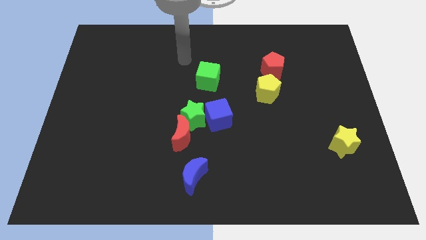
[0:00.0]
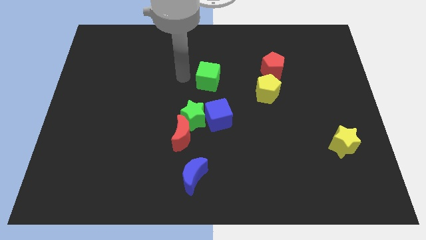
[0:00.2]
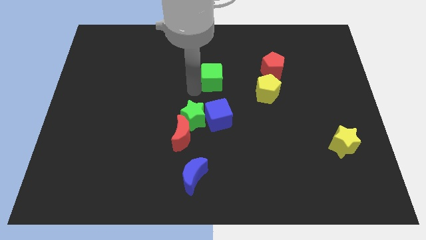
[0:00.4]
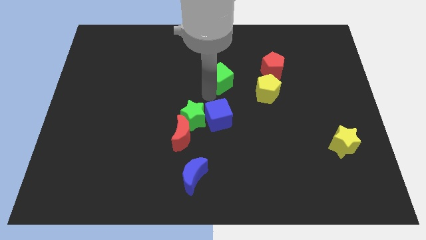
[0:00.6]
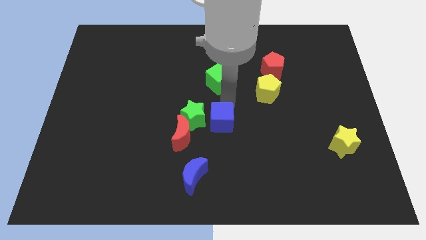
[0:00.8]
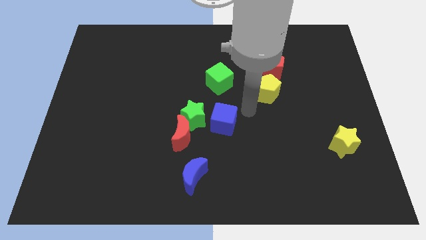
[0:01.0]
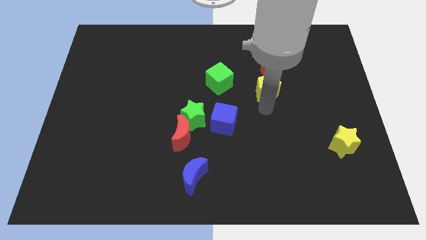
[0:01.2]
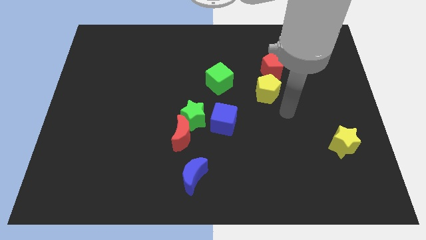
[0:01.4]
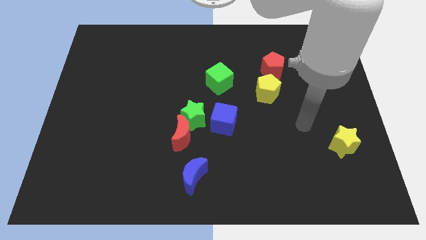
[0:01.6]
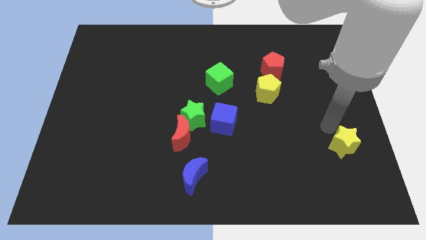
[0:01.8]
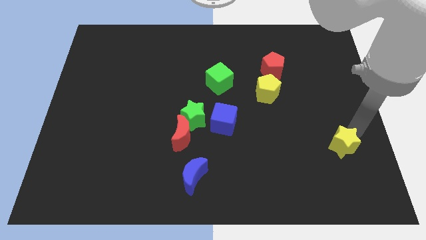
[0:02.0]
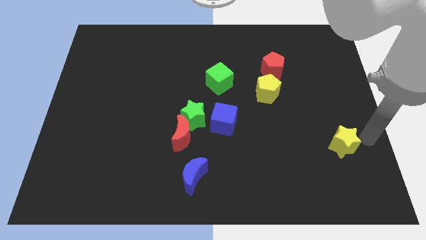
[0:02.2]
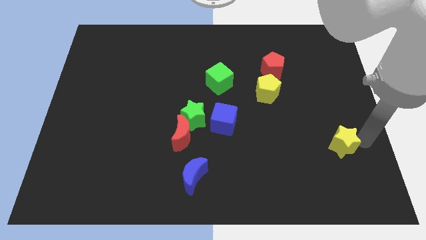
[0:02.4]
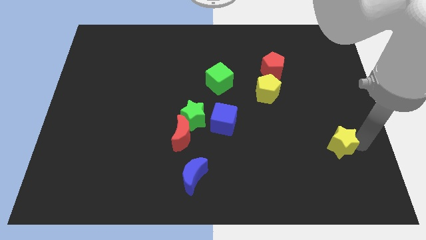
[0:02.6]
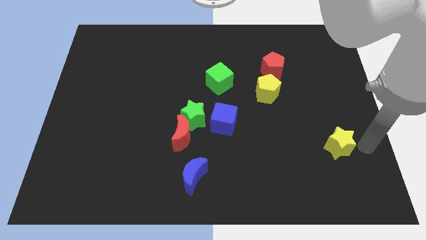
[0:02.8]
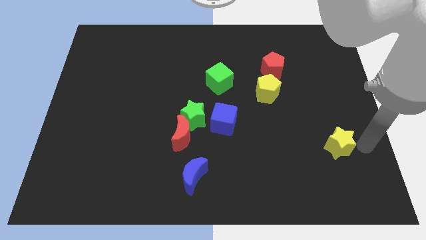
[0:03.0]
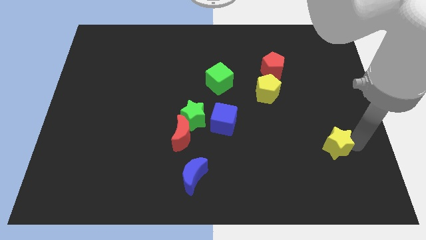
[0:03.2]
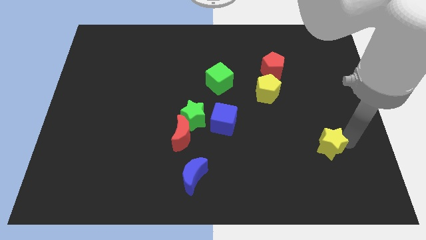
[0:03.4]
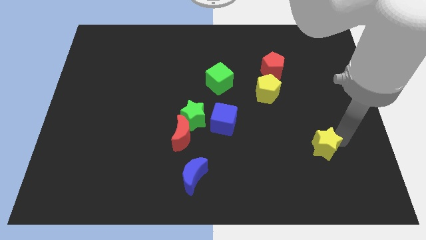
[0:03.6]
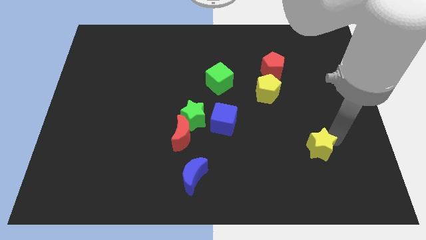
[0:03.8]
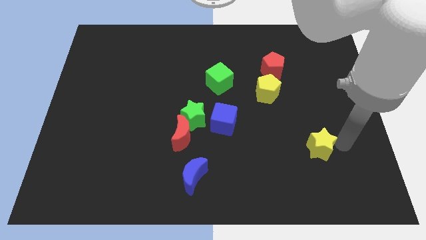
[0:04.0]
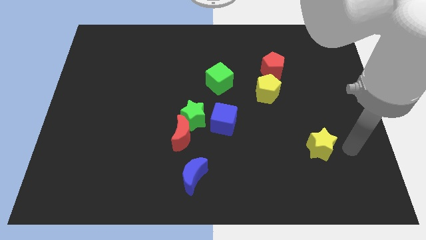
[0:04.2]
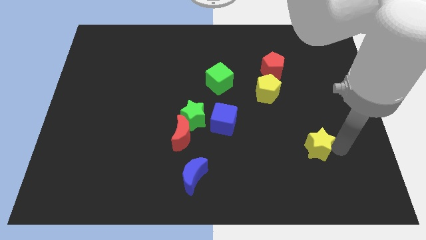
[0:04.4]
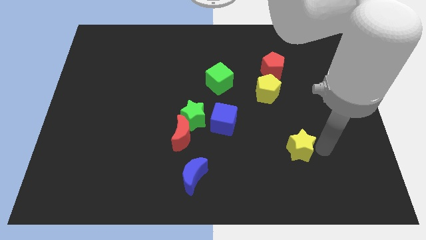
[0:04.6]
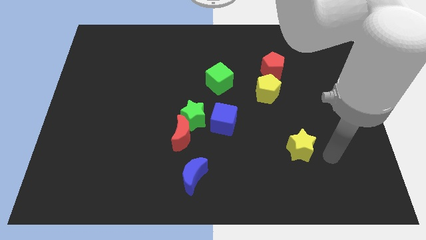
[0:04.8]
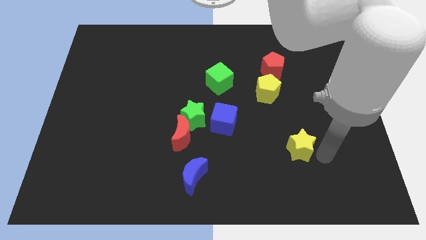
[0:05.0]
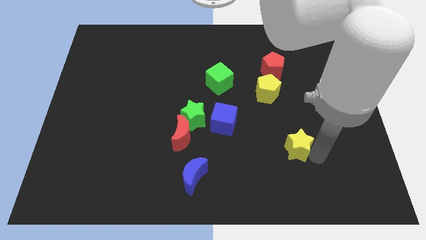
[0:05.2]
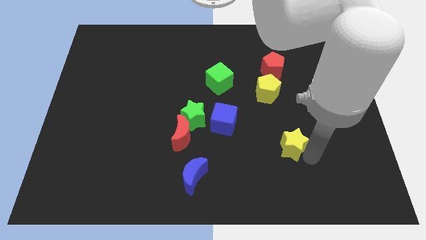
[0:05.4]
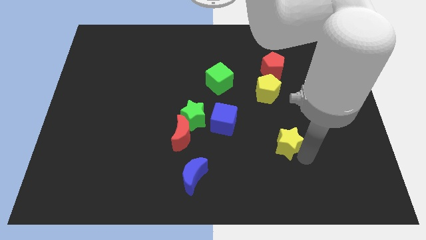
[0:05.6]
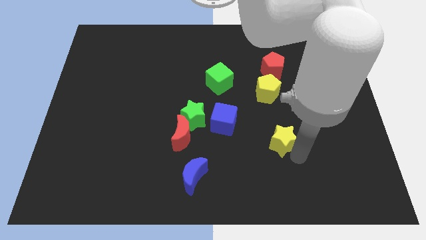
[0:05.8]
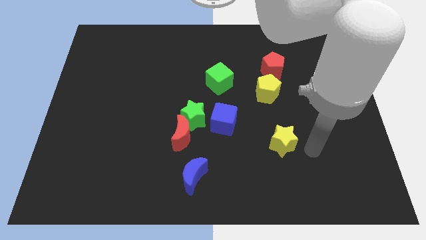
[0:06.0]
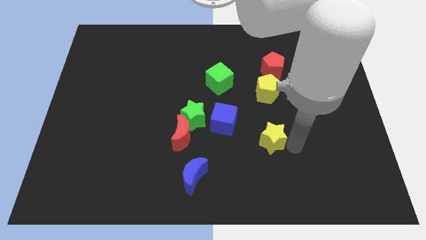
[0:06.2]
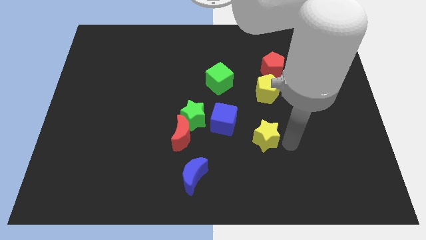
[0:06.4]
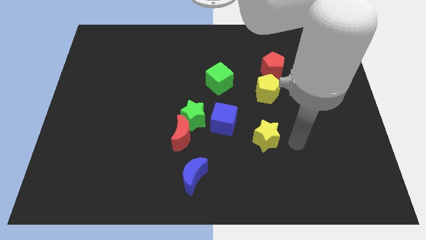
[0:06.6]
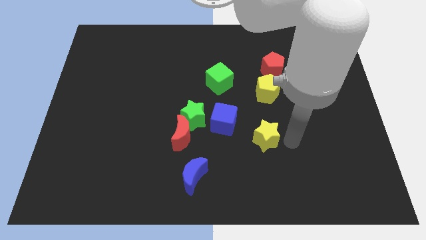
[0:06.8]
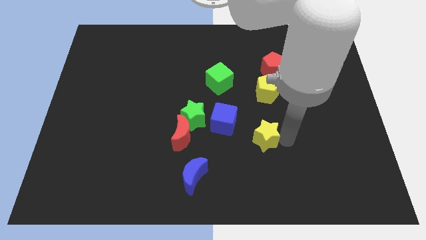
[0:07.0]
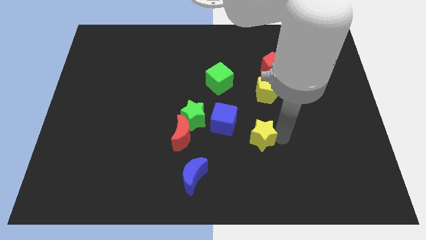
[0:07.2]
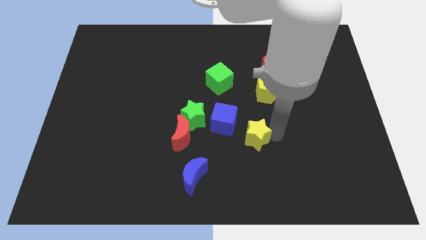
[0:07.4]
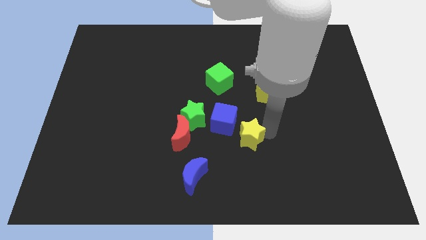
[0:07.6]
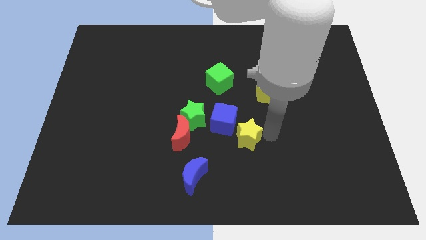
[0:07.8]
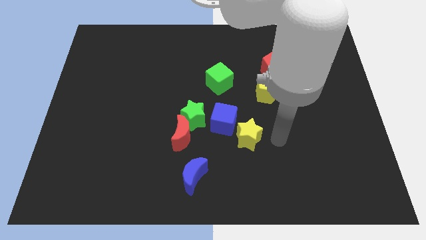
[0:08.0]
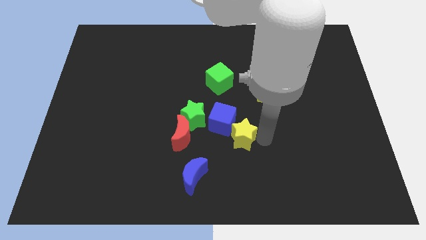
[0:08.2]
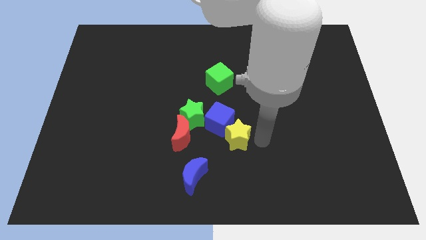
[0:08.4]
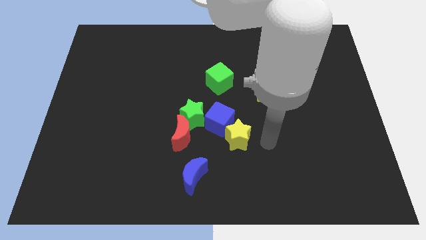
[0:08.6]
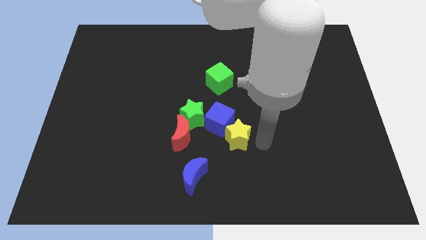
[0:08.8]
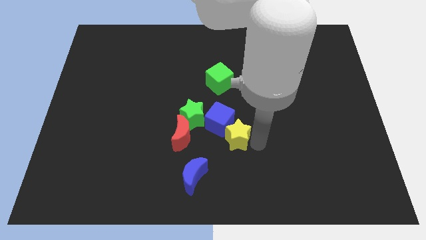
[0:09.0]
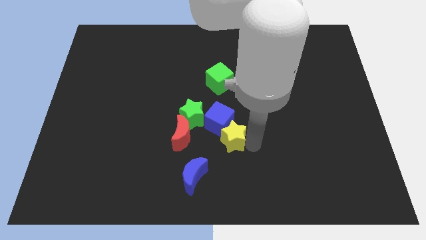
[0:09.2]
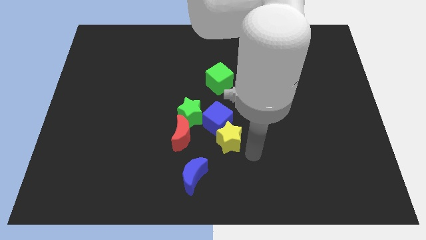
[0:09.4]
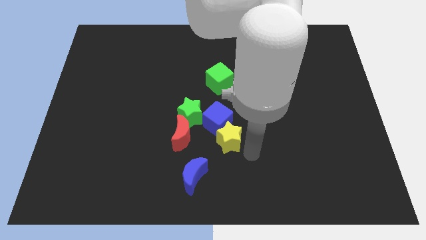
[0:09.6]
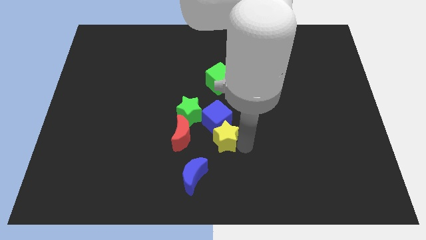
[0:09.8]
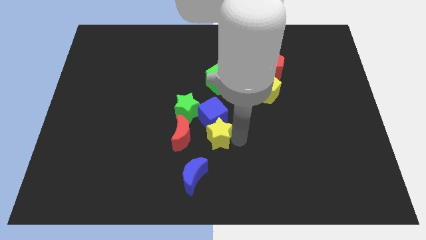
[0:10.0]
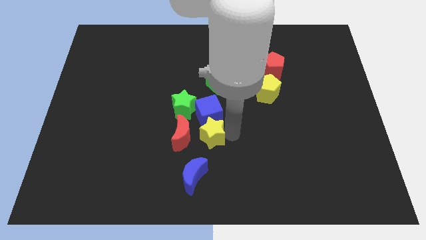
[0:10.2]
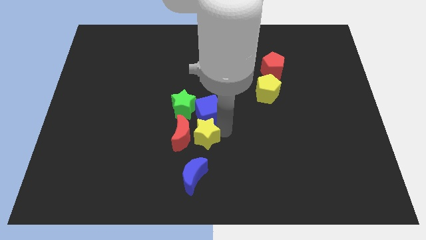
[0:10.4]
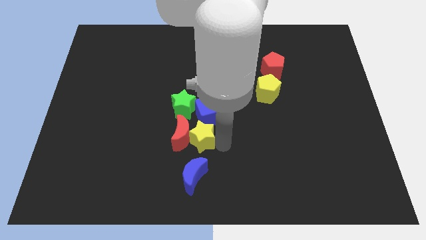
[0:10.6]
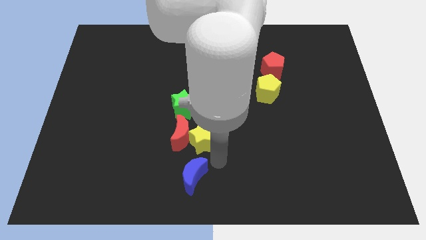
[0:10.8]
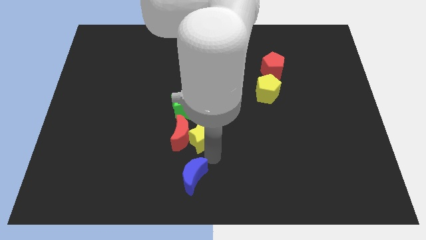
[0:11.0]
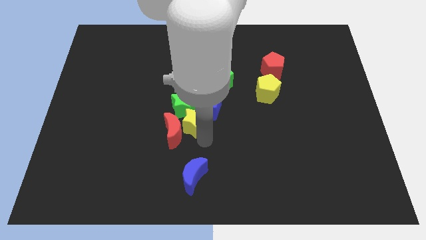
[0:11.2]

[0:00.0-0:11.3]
put the yellow star towards the green star

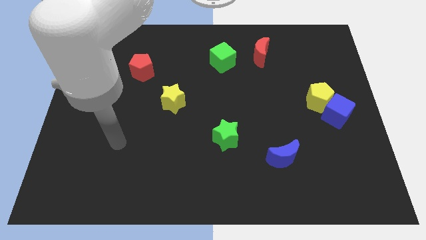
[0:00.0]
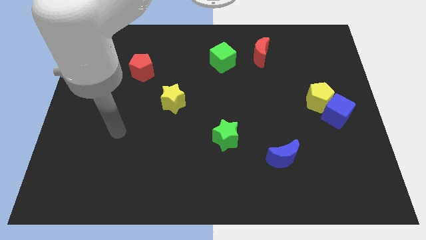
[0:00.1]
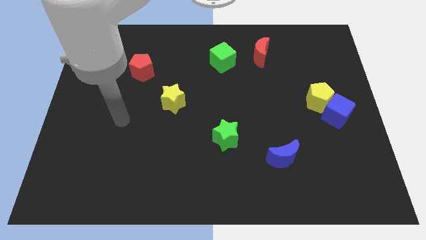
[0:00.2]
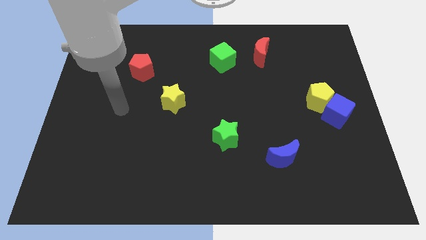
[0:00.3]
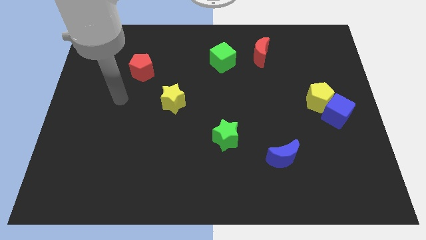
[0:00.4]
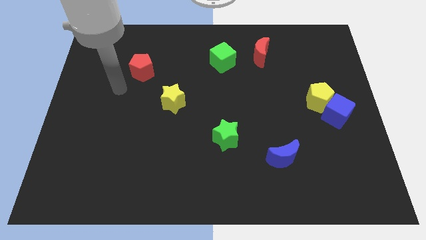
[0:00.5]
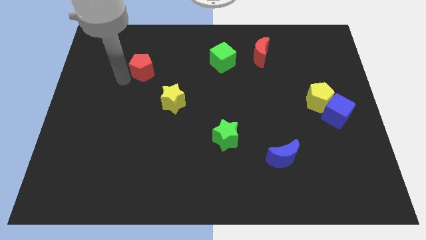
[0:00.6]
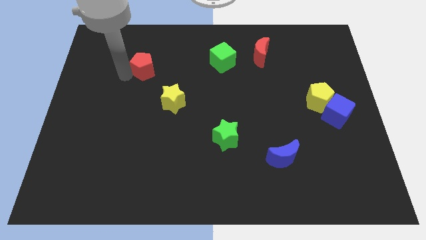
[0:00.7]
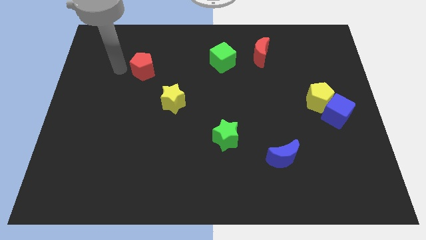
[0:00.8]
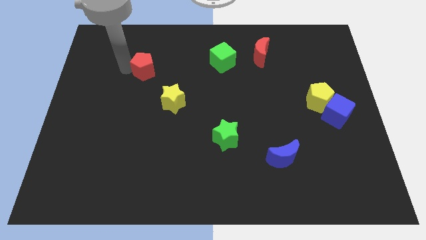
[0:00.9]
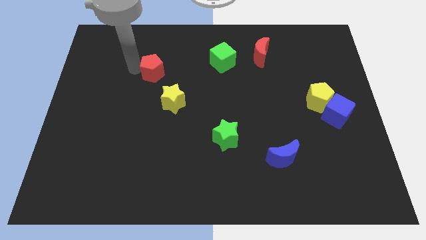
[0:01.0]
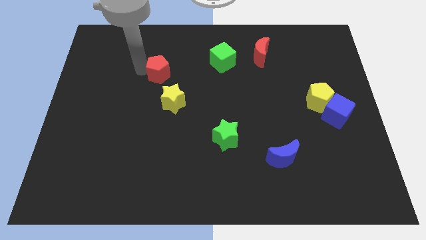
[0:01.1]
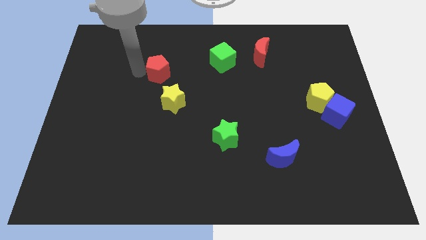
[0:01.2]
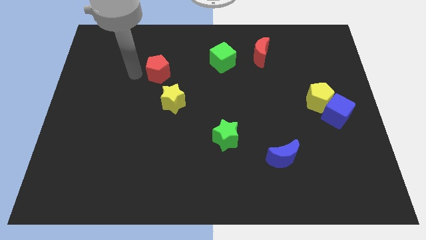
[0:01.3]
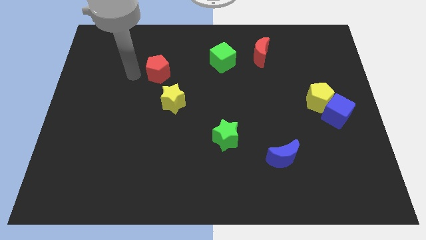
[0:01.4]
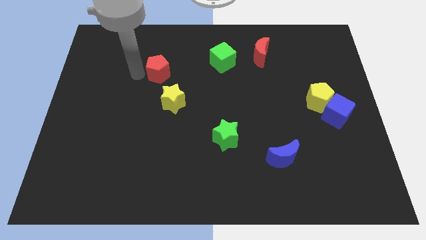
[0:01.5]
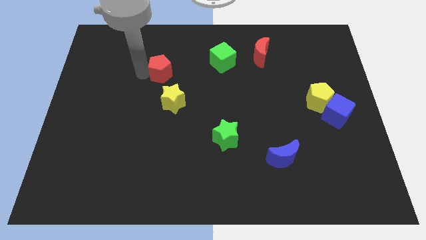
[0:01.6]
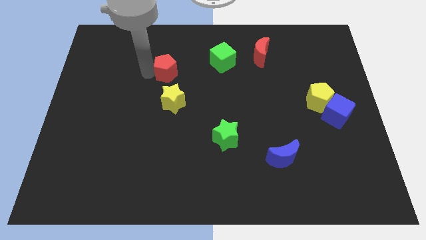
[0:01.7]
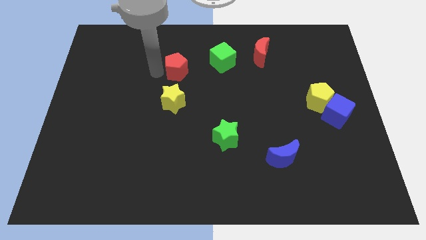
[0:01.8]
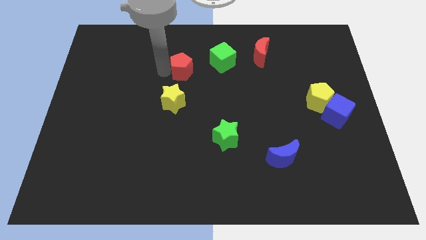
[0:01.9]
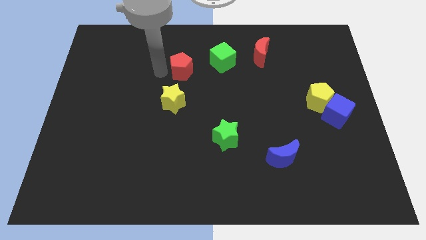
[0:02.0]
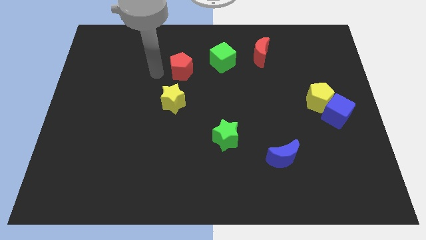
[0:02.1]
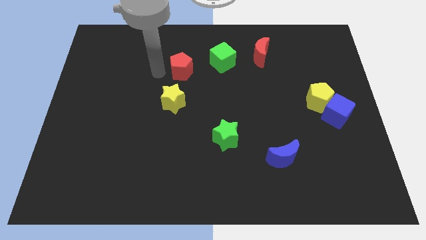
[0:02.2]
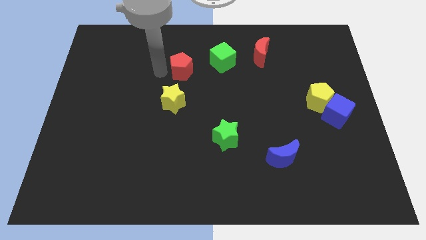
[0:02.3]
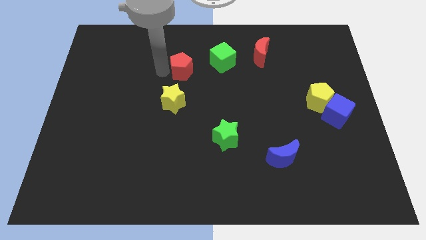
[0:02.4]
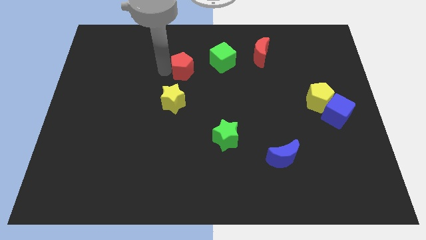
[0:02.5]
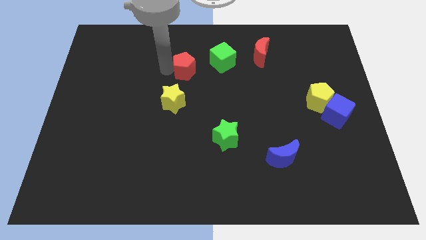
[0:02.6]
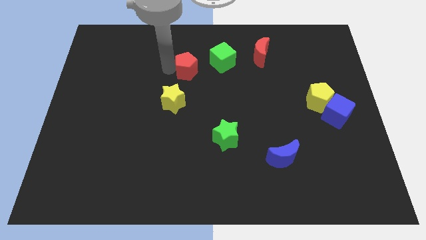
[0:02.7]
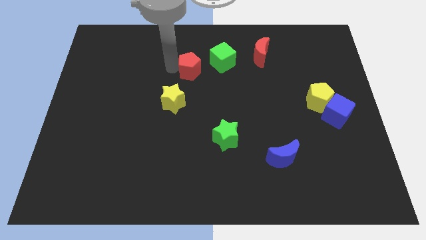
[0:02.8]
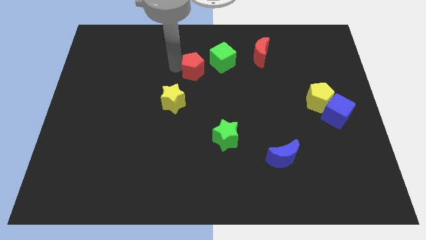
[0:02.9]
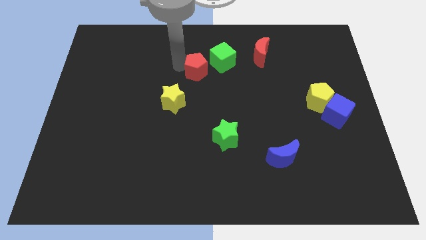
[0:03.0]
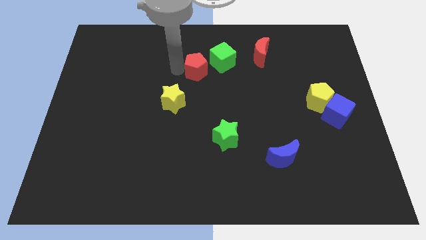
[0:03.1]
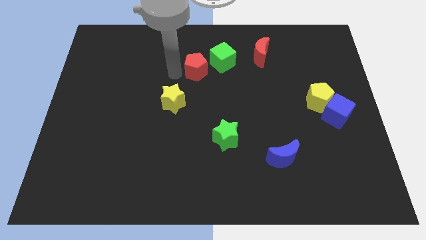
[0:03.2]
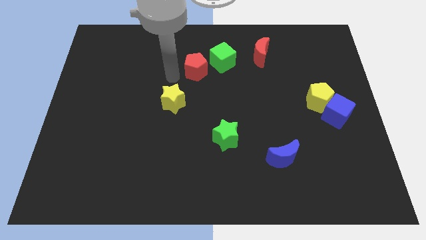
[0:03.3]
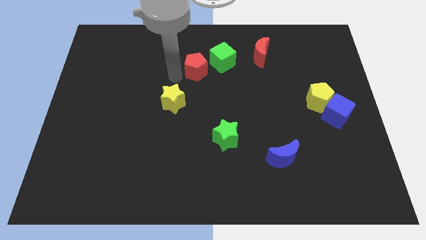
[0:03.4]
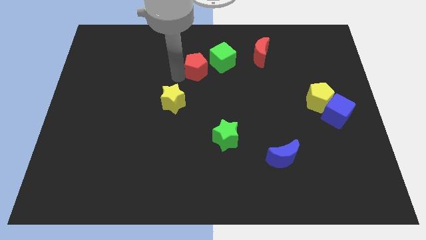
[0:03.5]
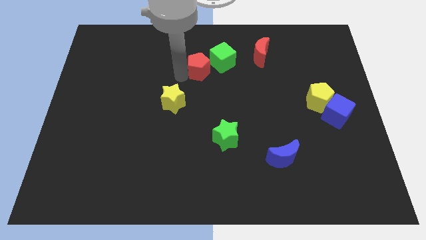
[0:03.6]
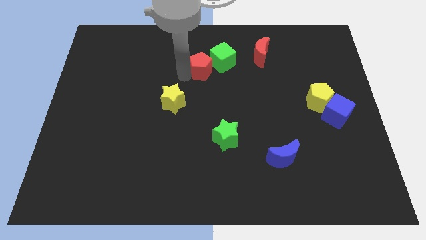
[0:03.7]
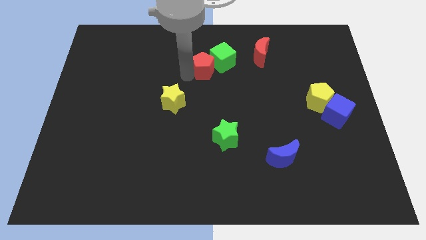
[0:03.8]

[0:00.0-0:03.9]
push the red pentagon towards the green cube
